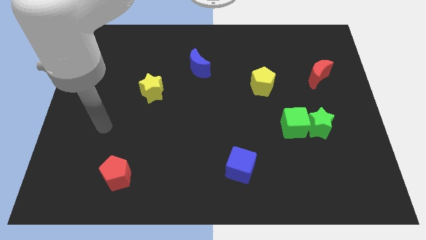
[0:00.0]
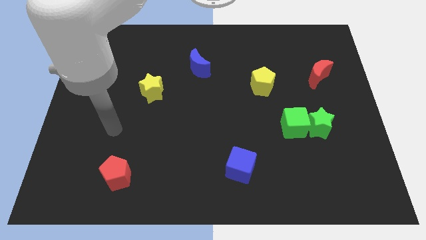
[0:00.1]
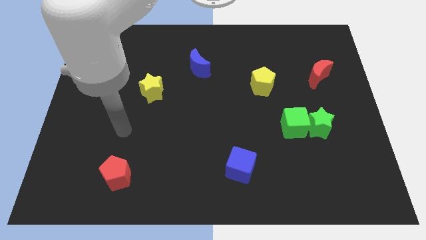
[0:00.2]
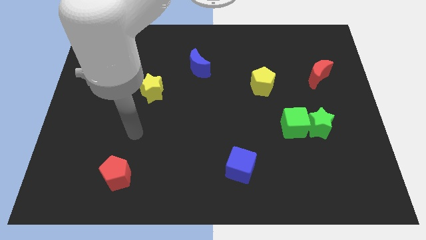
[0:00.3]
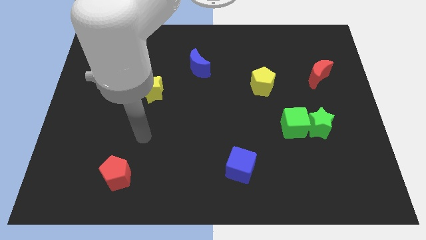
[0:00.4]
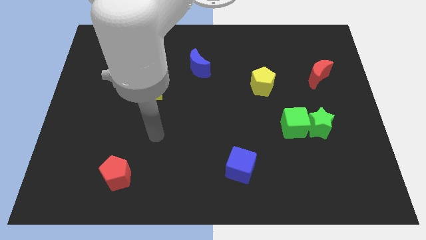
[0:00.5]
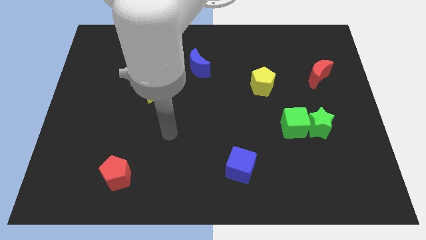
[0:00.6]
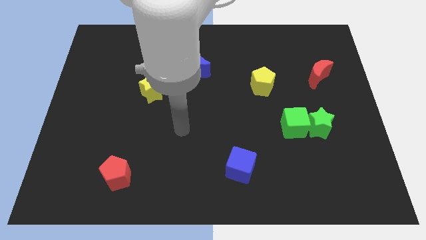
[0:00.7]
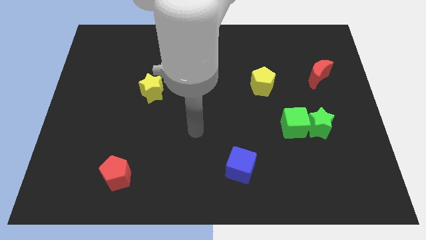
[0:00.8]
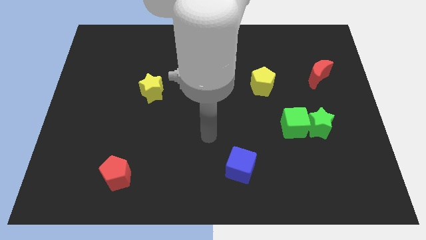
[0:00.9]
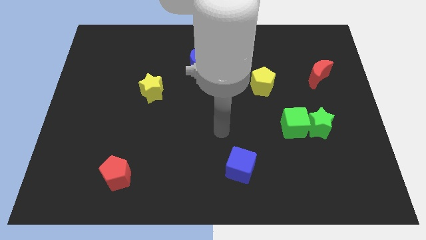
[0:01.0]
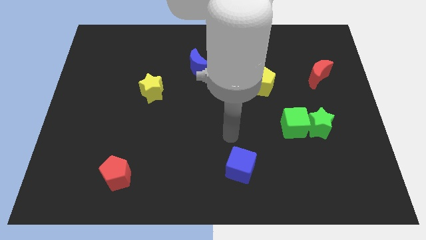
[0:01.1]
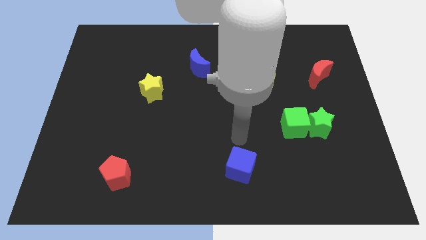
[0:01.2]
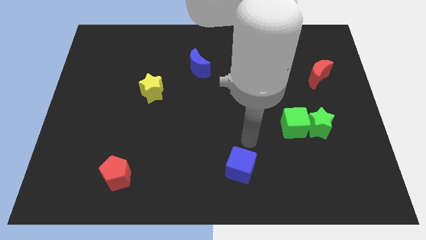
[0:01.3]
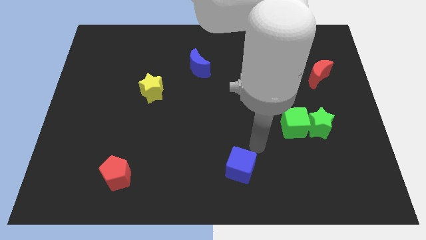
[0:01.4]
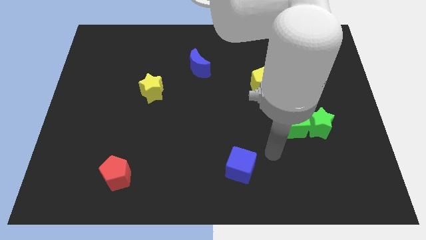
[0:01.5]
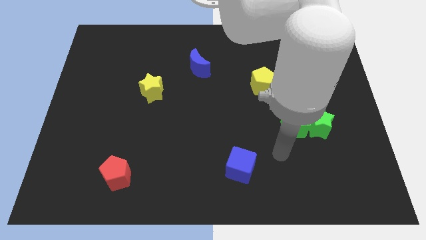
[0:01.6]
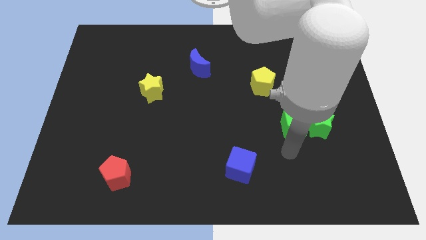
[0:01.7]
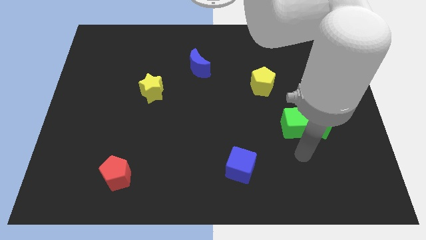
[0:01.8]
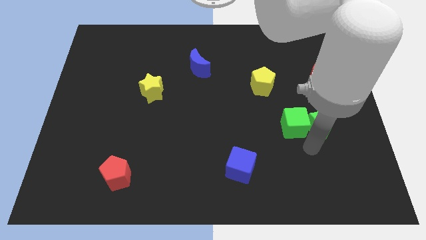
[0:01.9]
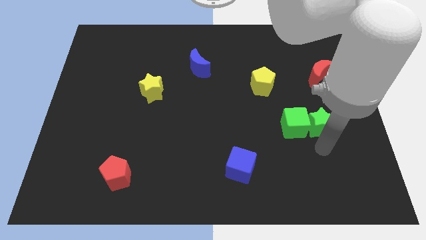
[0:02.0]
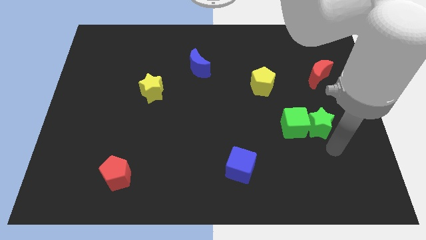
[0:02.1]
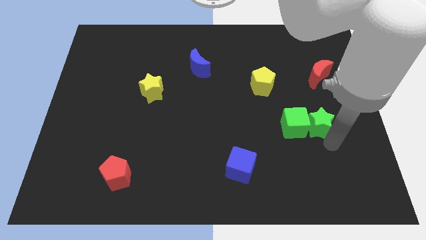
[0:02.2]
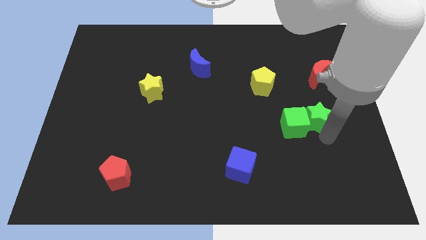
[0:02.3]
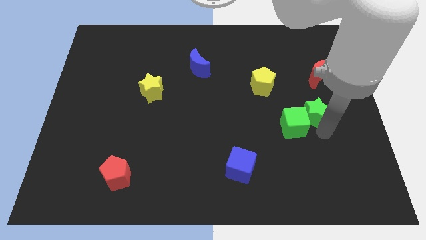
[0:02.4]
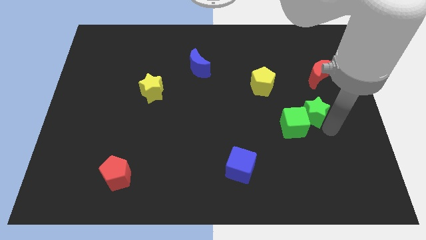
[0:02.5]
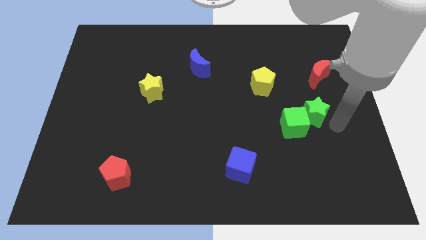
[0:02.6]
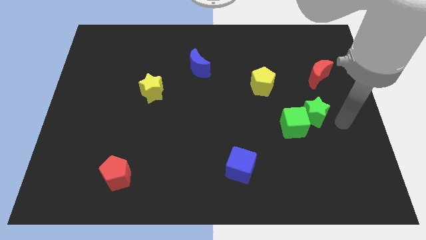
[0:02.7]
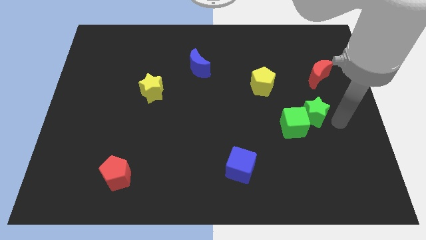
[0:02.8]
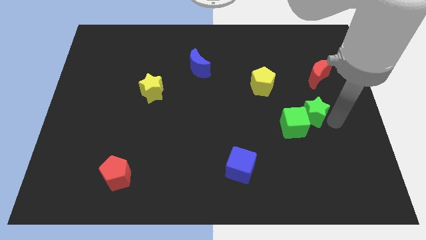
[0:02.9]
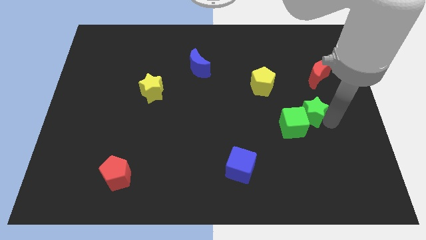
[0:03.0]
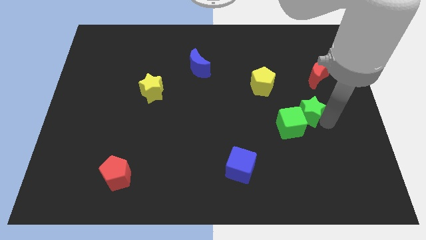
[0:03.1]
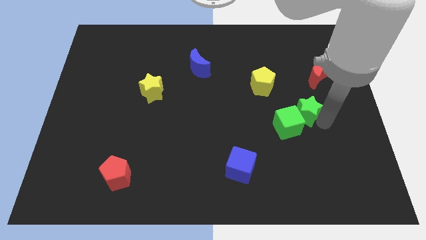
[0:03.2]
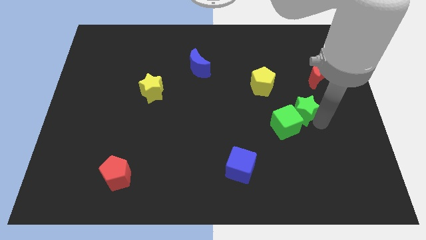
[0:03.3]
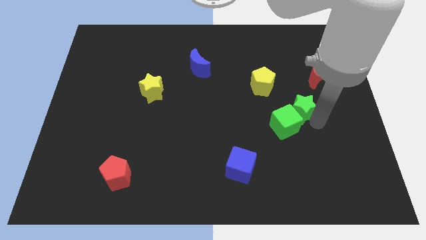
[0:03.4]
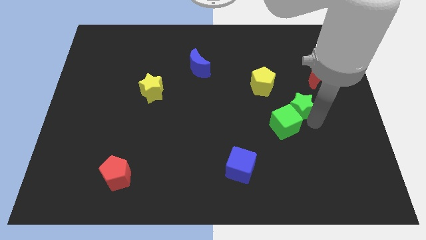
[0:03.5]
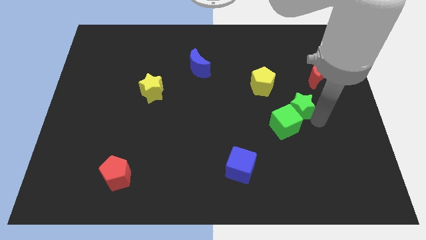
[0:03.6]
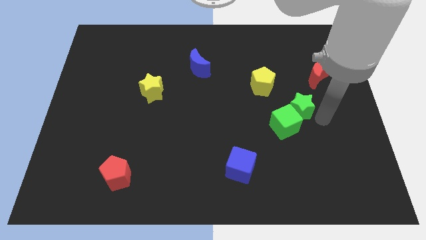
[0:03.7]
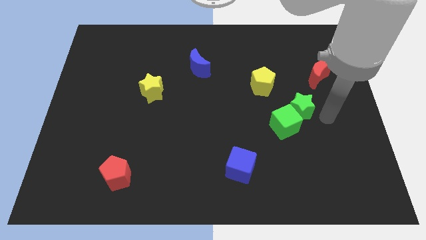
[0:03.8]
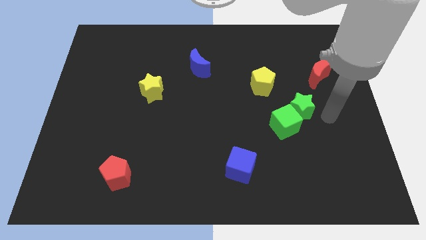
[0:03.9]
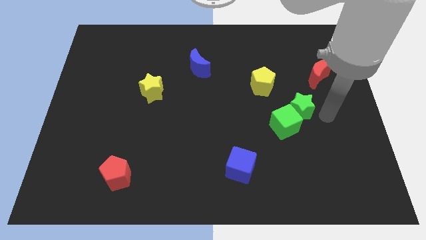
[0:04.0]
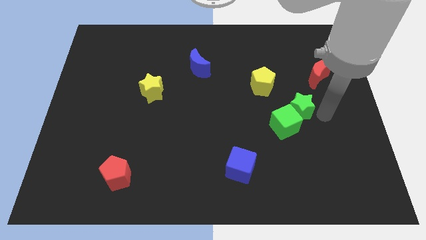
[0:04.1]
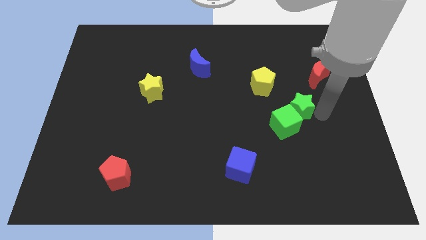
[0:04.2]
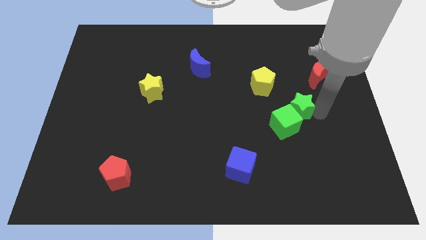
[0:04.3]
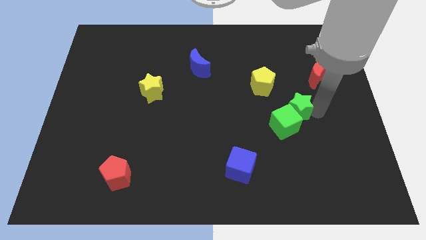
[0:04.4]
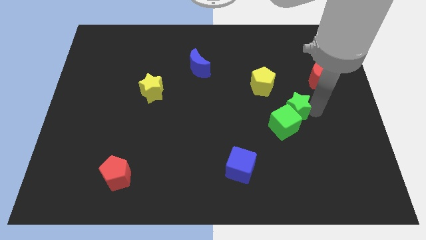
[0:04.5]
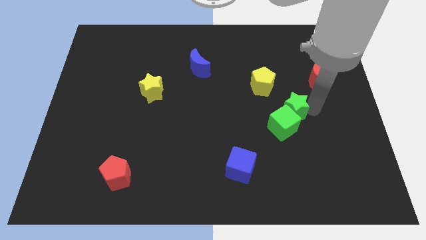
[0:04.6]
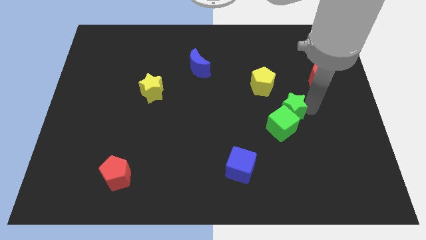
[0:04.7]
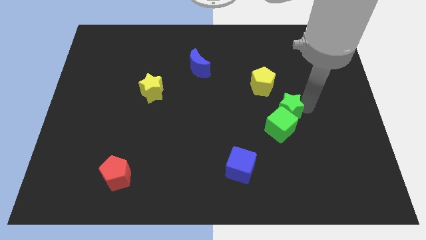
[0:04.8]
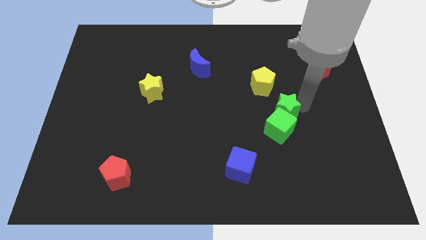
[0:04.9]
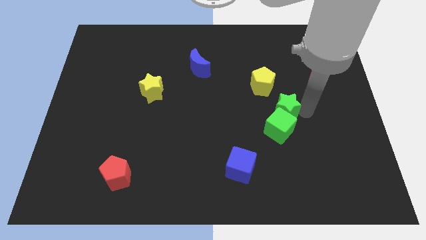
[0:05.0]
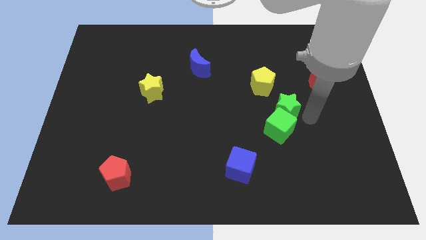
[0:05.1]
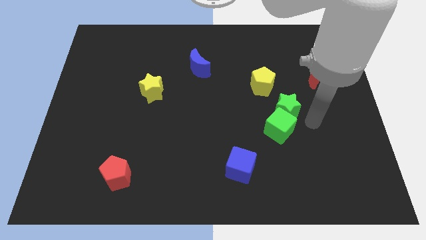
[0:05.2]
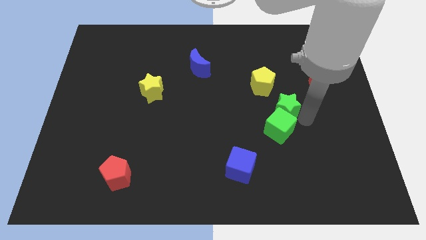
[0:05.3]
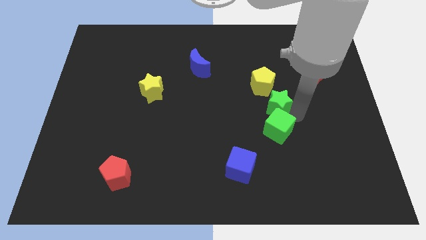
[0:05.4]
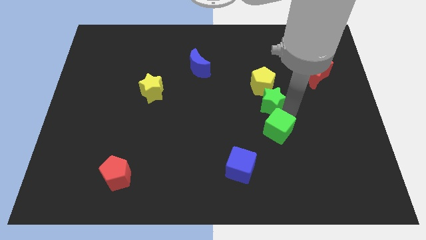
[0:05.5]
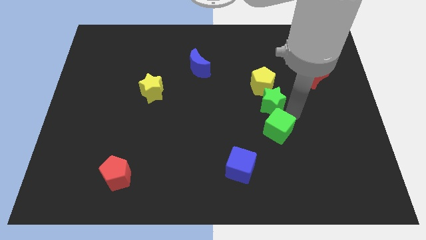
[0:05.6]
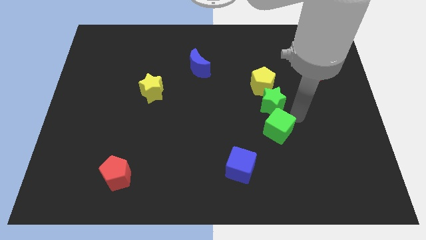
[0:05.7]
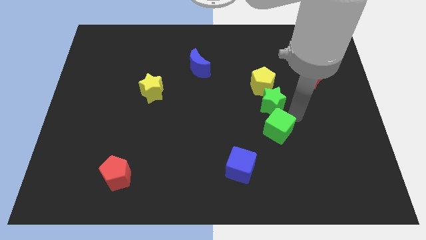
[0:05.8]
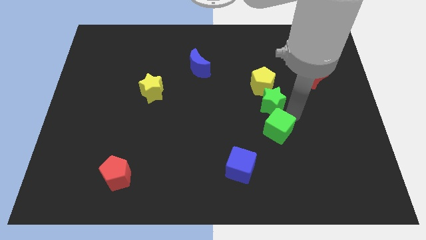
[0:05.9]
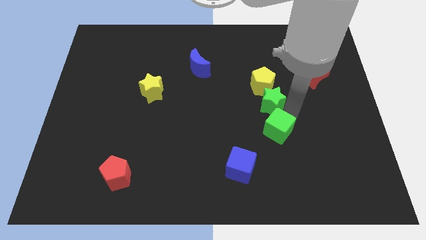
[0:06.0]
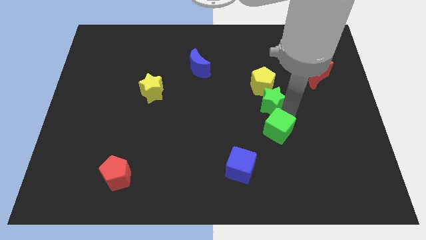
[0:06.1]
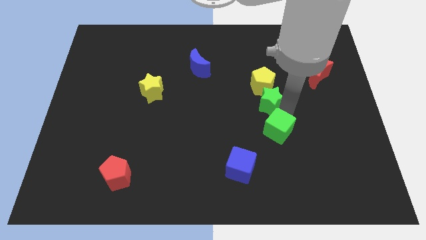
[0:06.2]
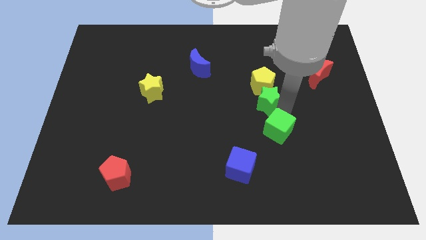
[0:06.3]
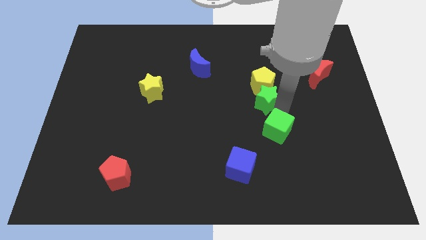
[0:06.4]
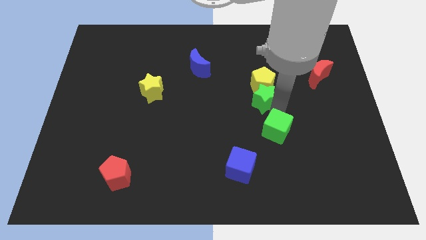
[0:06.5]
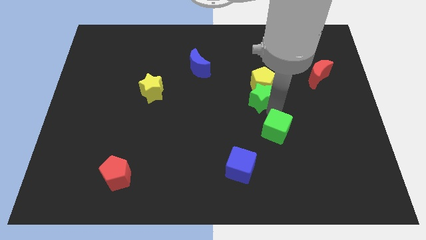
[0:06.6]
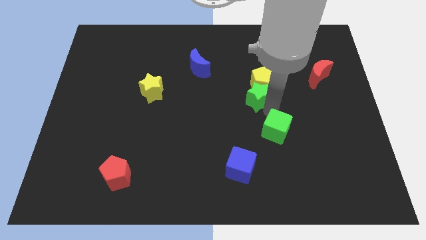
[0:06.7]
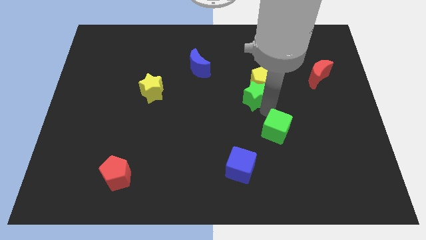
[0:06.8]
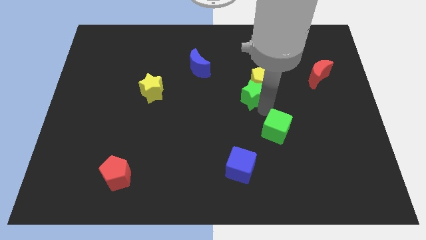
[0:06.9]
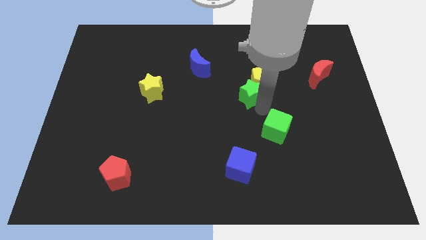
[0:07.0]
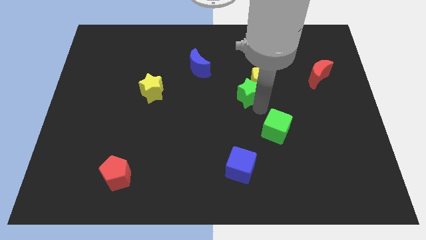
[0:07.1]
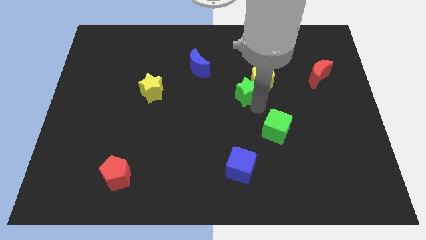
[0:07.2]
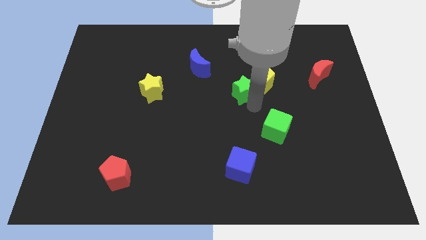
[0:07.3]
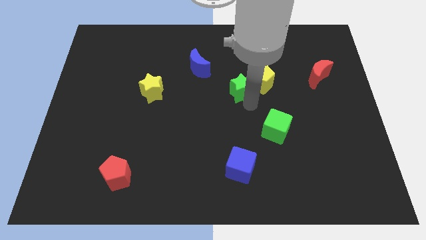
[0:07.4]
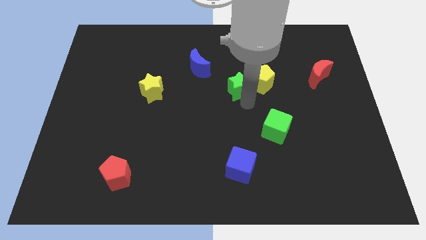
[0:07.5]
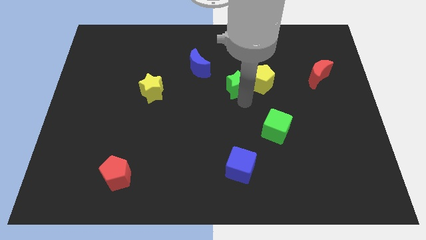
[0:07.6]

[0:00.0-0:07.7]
move the green star up and to the left diagonally

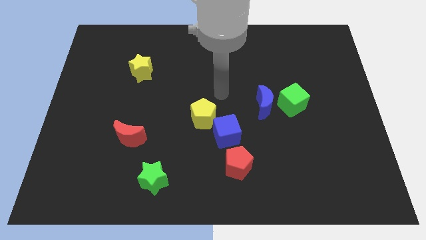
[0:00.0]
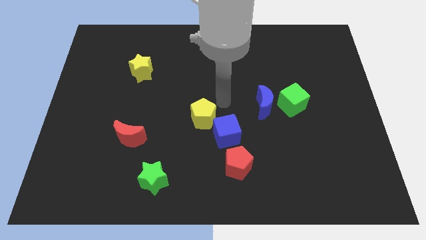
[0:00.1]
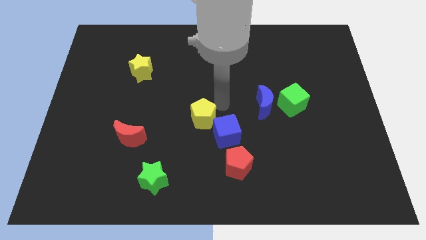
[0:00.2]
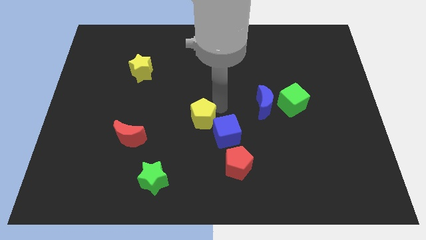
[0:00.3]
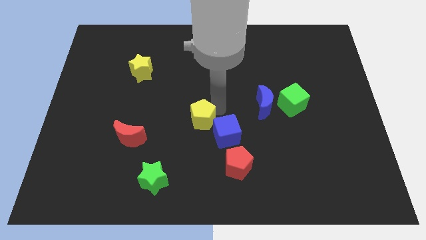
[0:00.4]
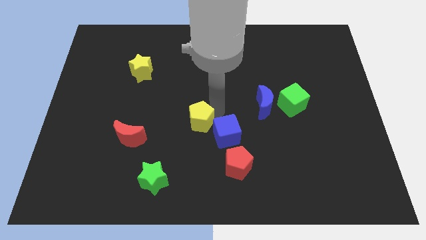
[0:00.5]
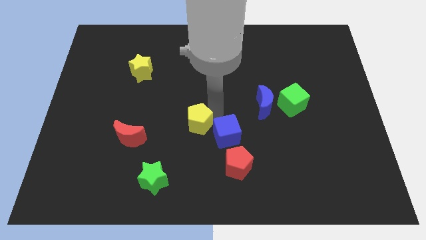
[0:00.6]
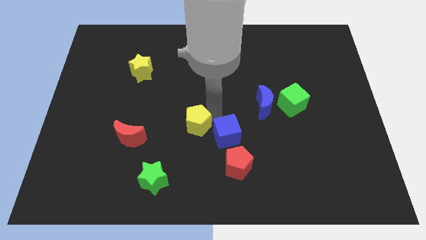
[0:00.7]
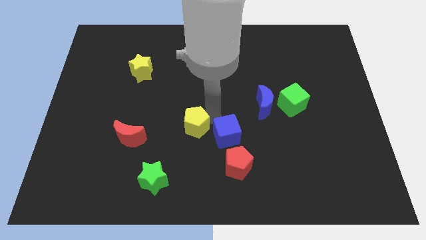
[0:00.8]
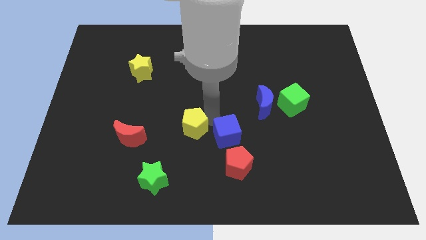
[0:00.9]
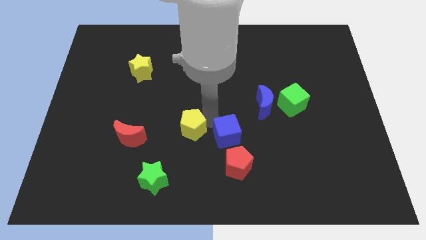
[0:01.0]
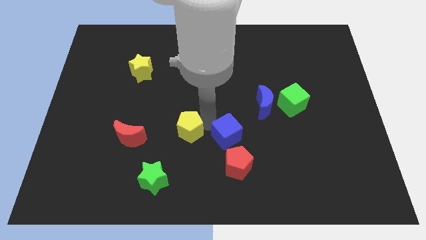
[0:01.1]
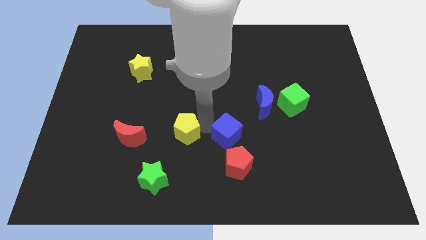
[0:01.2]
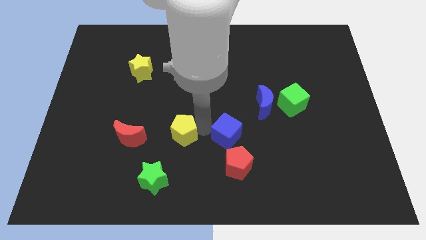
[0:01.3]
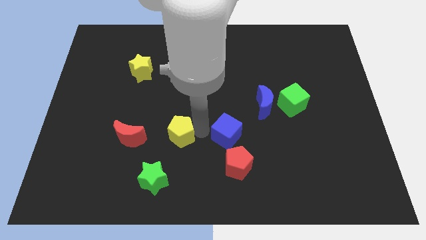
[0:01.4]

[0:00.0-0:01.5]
push the yellow pentagon a little downwards and then to the left
